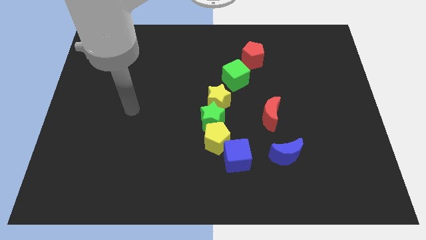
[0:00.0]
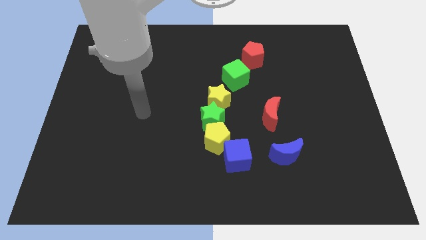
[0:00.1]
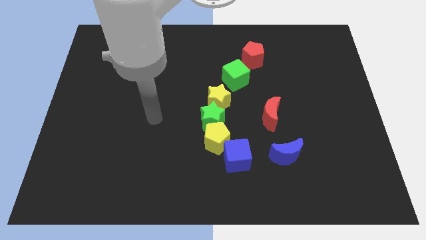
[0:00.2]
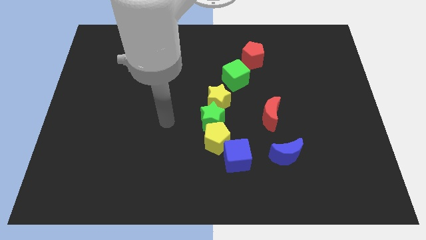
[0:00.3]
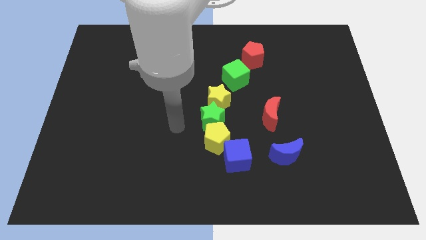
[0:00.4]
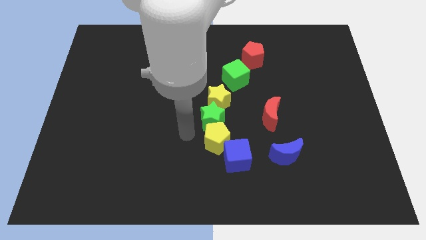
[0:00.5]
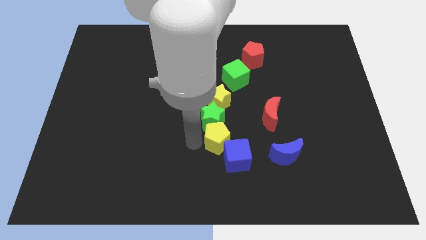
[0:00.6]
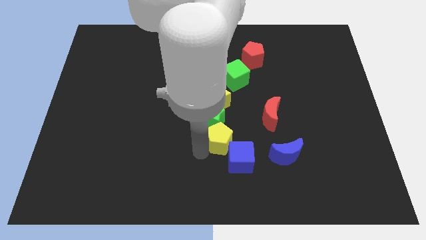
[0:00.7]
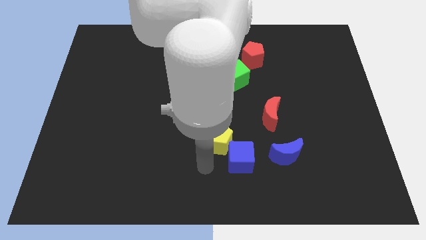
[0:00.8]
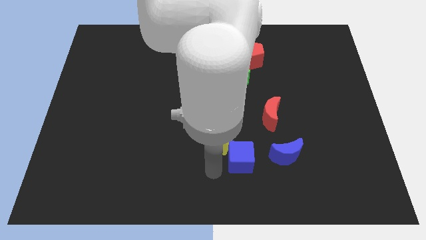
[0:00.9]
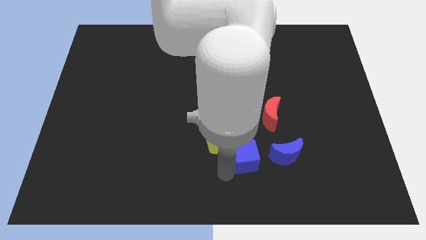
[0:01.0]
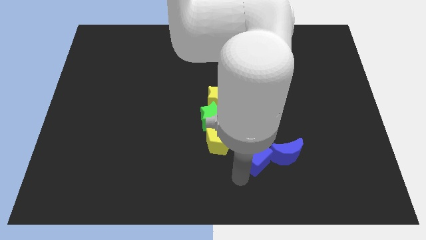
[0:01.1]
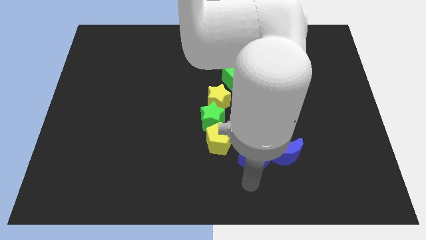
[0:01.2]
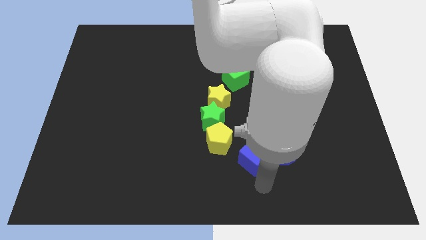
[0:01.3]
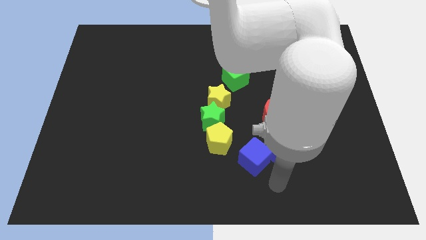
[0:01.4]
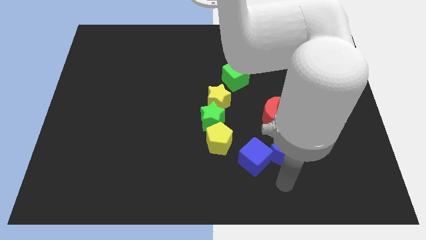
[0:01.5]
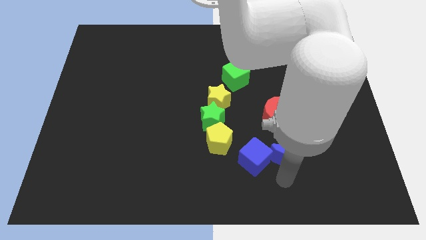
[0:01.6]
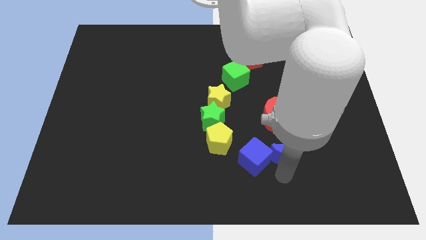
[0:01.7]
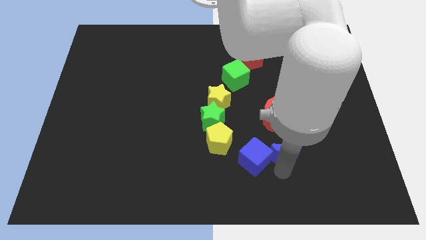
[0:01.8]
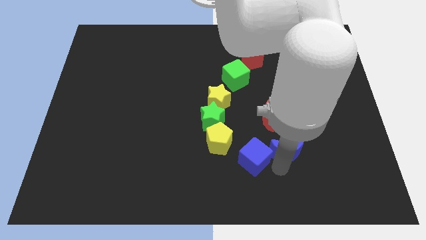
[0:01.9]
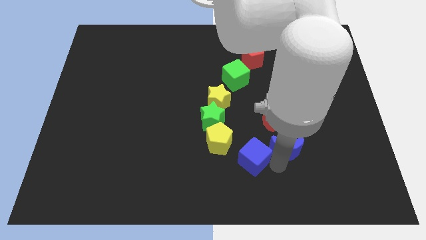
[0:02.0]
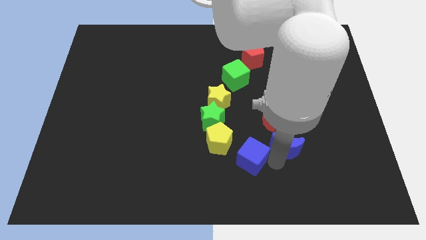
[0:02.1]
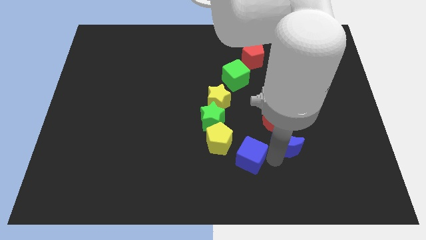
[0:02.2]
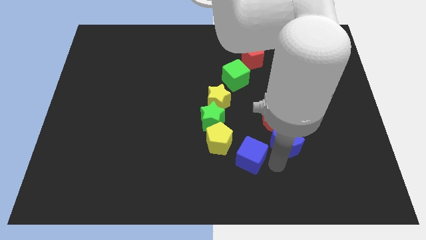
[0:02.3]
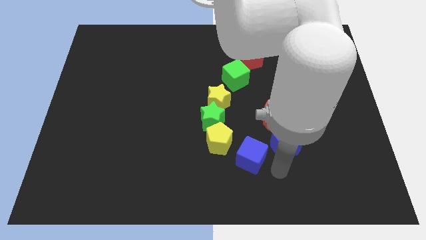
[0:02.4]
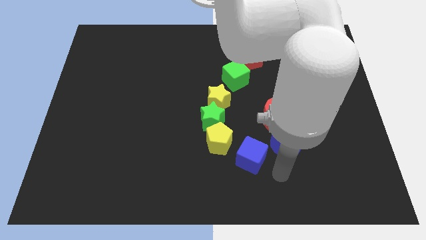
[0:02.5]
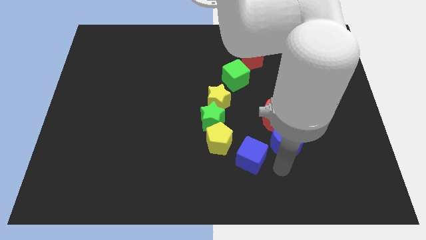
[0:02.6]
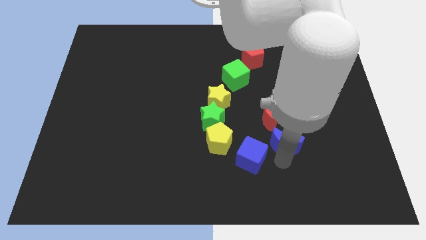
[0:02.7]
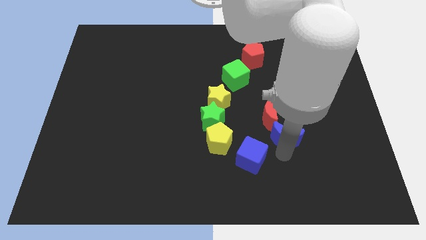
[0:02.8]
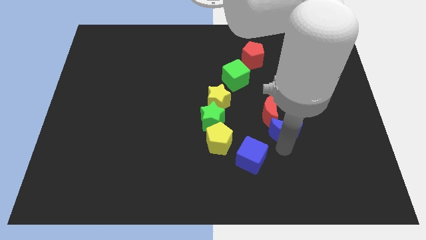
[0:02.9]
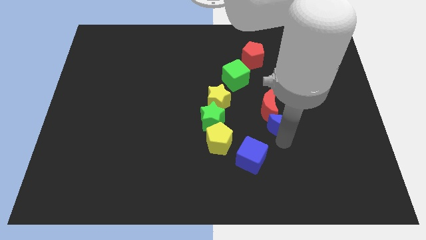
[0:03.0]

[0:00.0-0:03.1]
push the blue moon slightly upwards

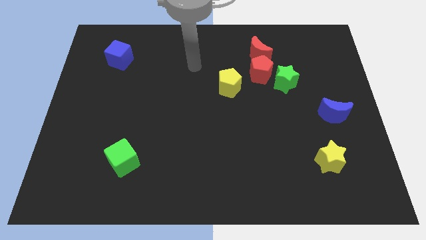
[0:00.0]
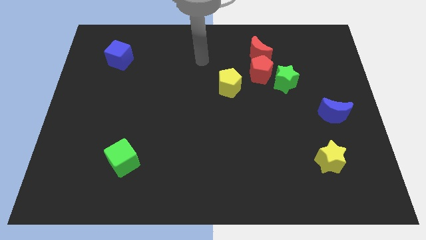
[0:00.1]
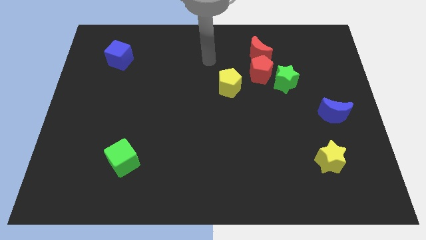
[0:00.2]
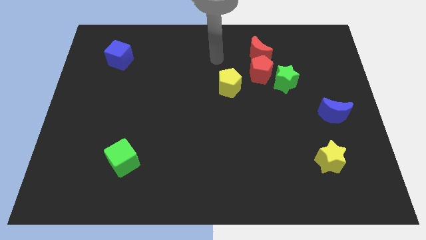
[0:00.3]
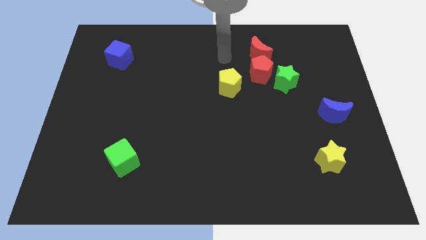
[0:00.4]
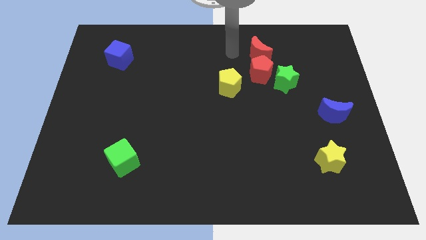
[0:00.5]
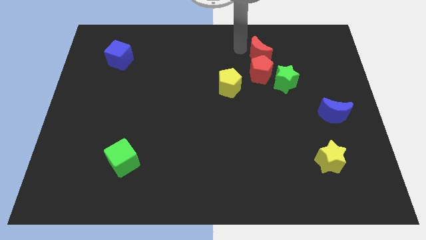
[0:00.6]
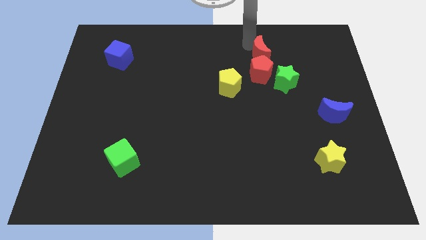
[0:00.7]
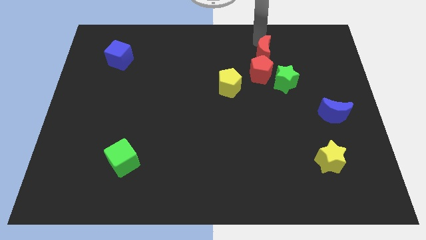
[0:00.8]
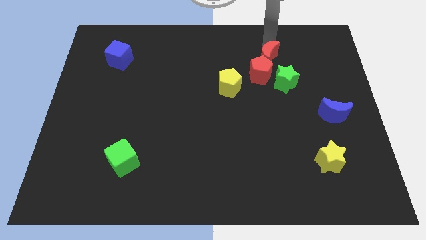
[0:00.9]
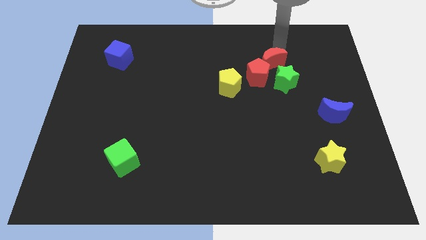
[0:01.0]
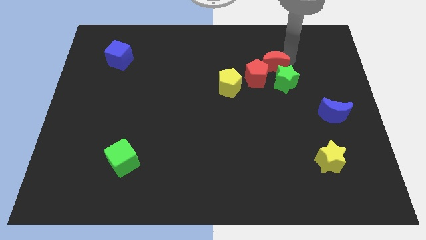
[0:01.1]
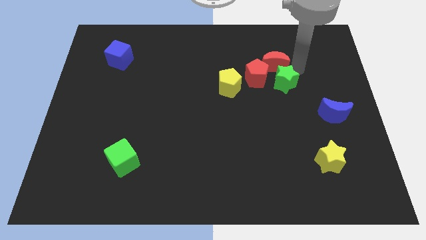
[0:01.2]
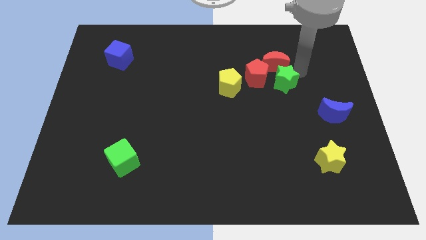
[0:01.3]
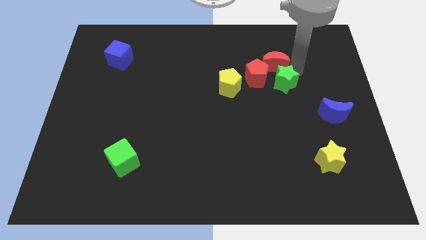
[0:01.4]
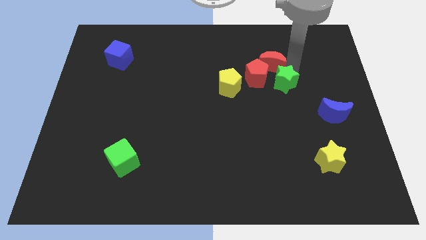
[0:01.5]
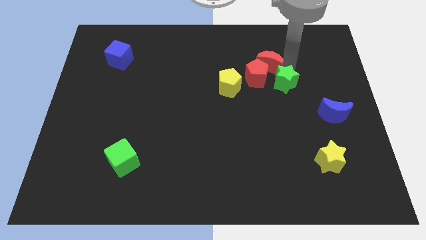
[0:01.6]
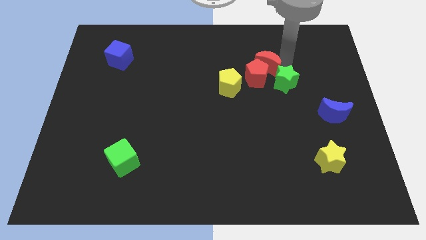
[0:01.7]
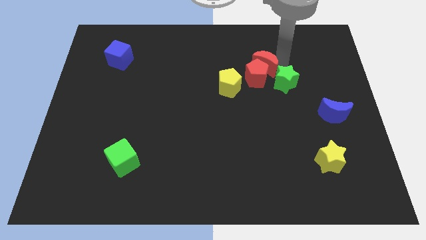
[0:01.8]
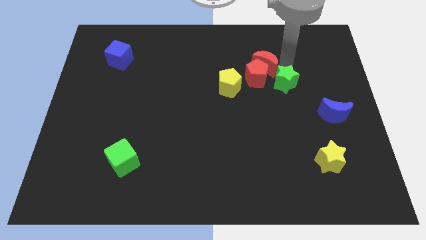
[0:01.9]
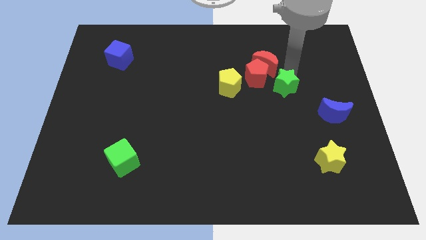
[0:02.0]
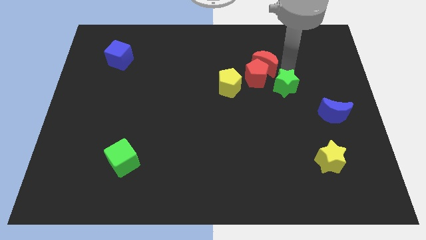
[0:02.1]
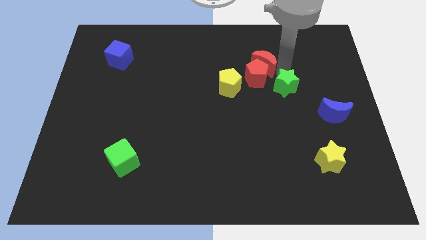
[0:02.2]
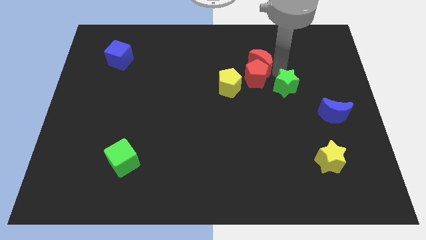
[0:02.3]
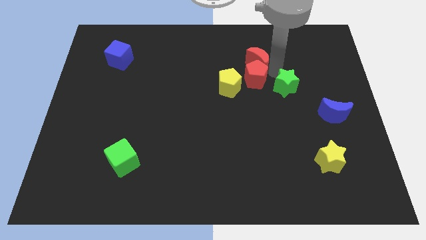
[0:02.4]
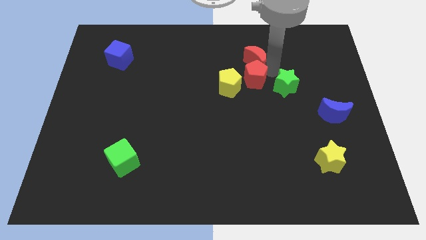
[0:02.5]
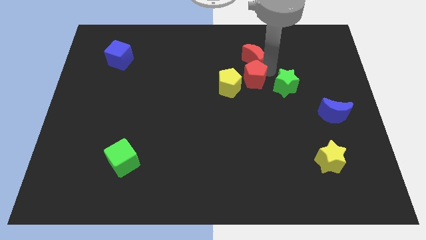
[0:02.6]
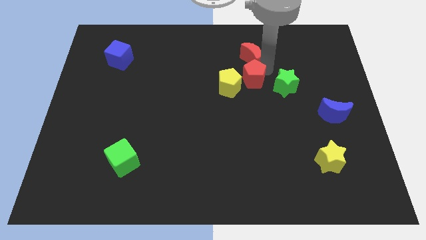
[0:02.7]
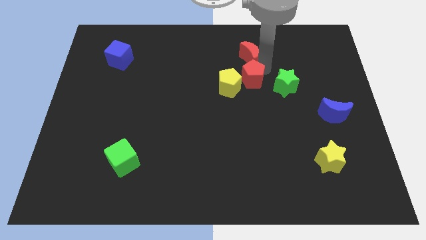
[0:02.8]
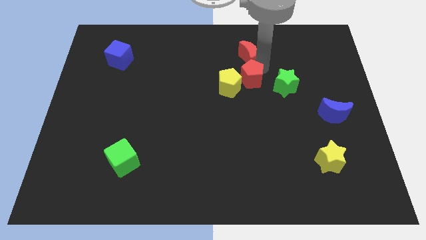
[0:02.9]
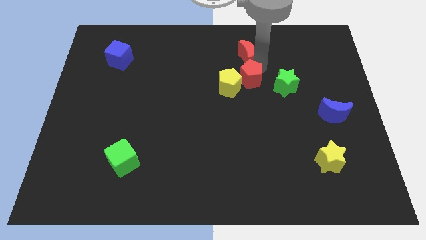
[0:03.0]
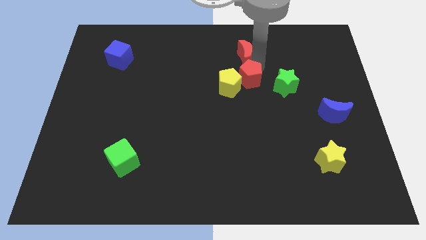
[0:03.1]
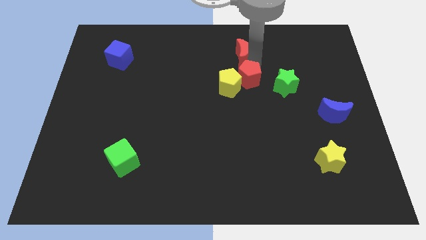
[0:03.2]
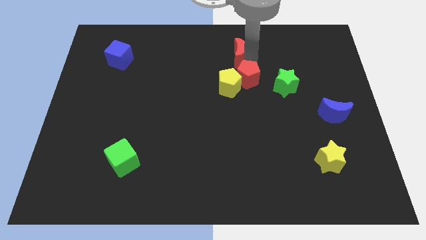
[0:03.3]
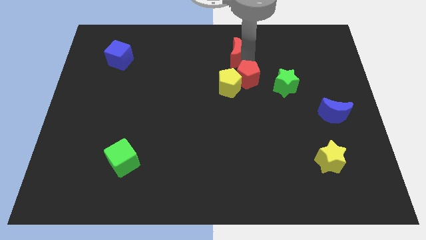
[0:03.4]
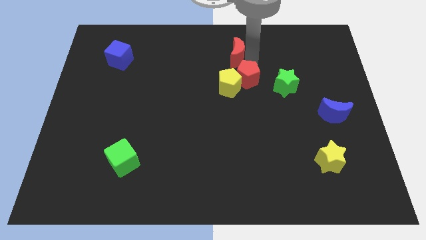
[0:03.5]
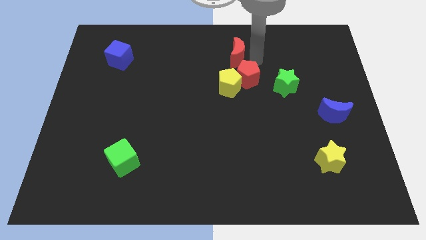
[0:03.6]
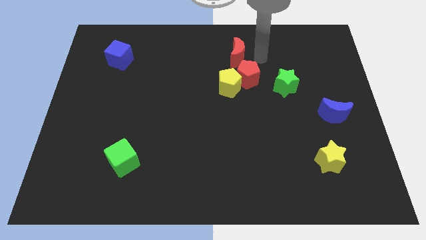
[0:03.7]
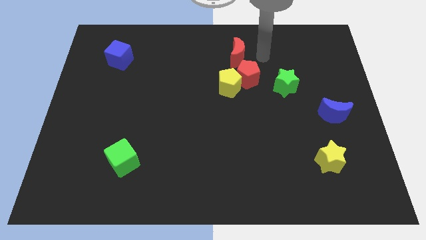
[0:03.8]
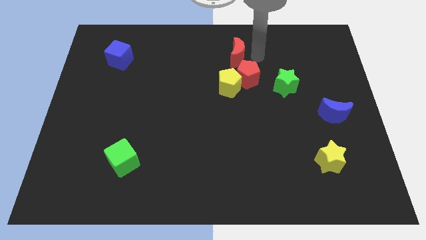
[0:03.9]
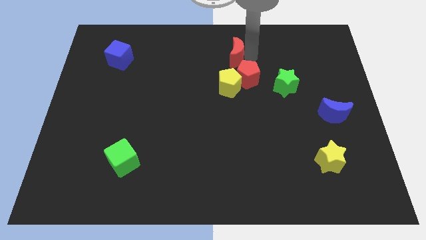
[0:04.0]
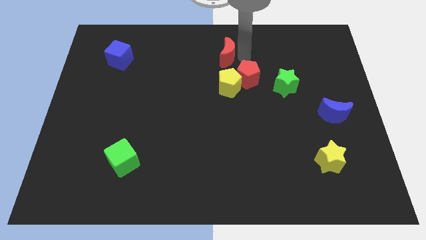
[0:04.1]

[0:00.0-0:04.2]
push the red moon a little bit left

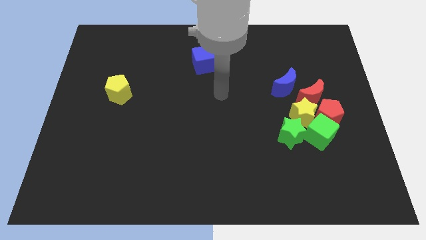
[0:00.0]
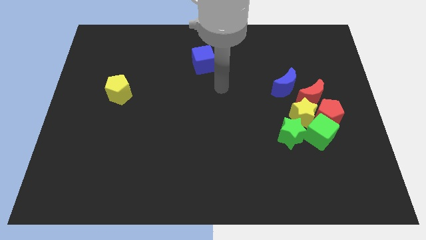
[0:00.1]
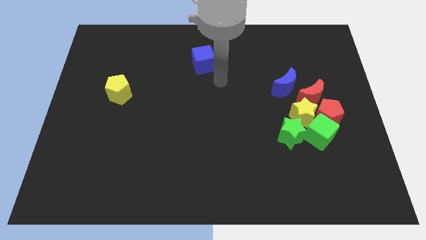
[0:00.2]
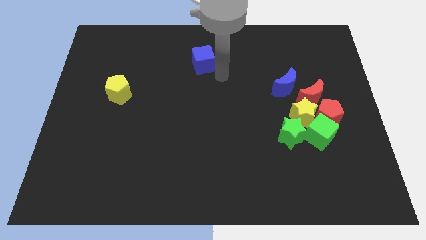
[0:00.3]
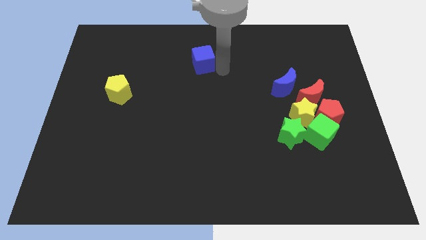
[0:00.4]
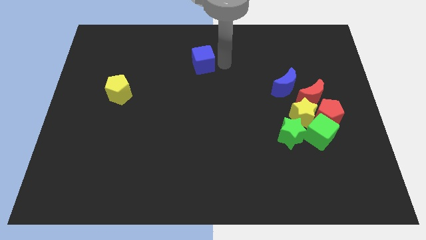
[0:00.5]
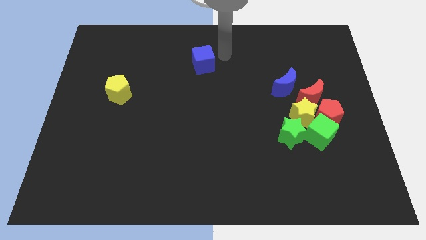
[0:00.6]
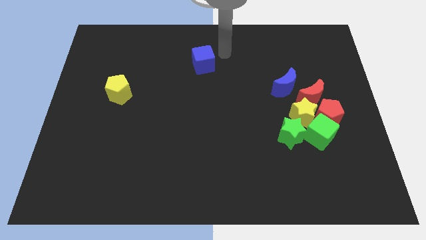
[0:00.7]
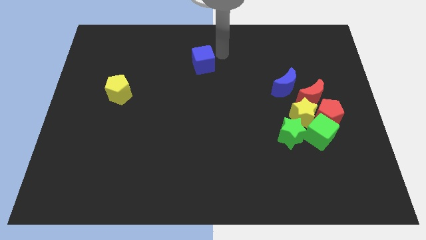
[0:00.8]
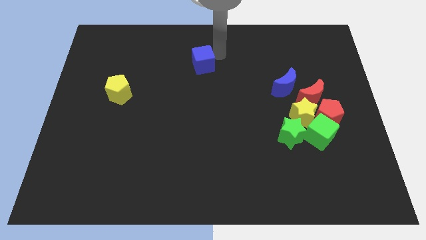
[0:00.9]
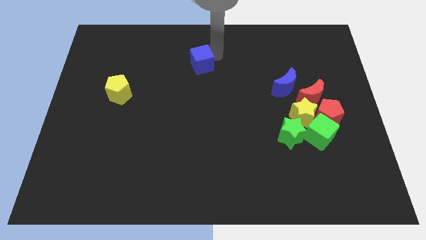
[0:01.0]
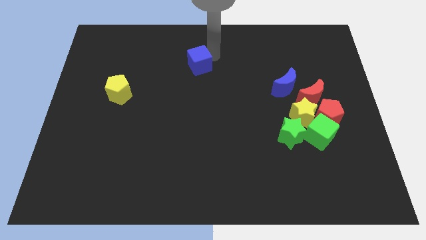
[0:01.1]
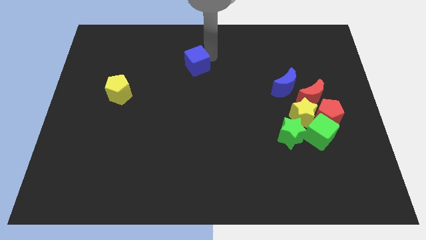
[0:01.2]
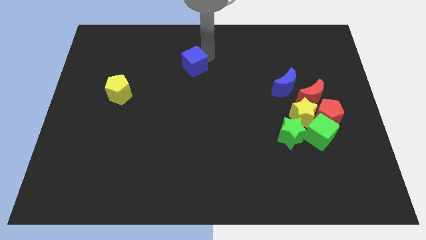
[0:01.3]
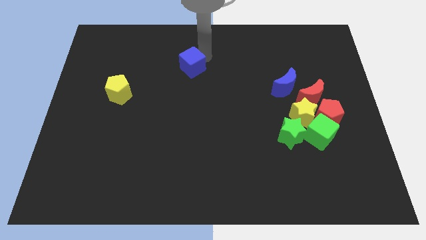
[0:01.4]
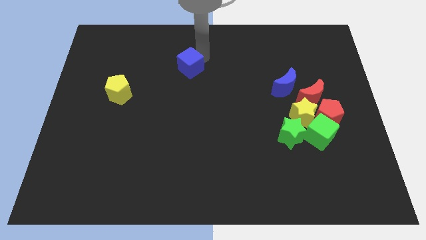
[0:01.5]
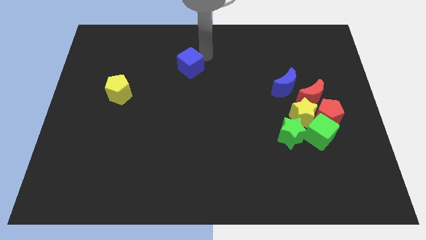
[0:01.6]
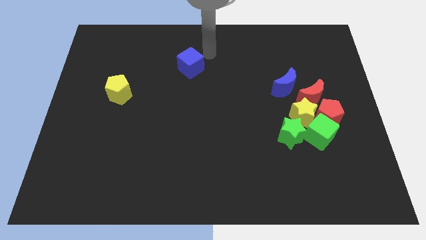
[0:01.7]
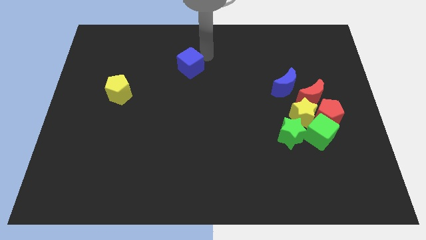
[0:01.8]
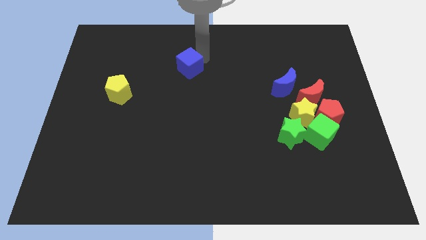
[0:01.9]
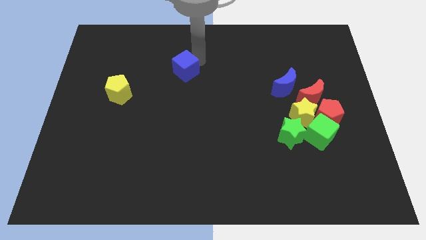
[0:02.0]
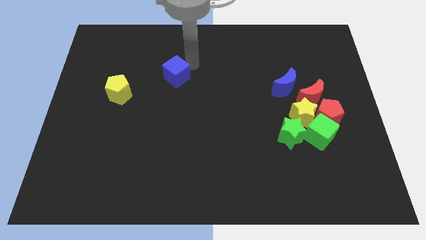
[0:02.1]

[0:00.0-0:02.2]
push the blue cube slightly downwards and left diagonally
